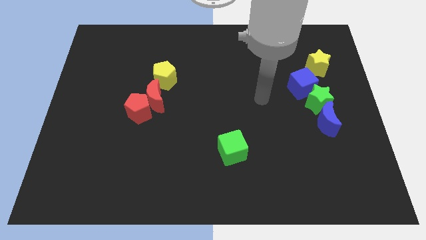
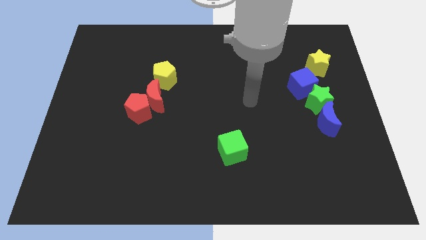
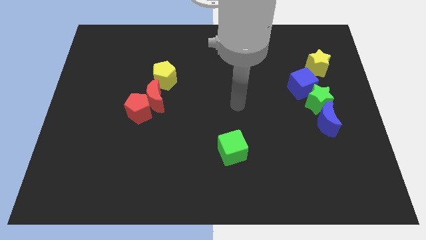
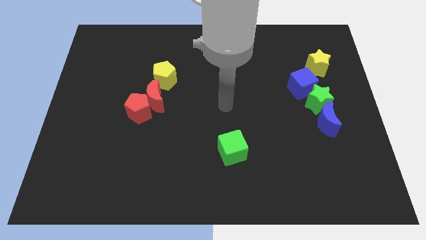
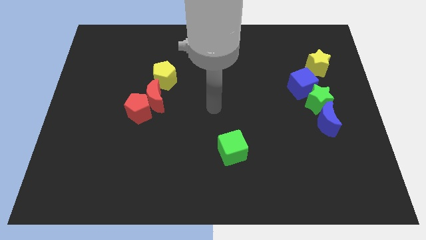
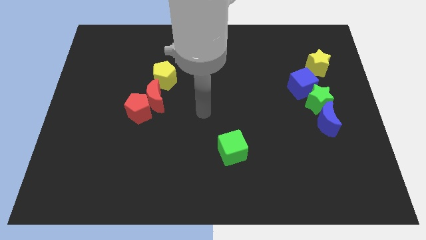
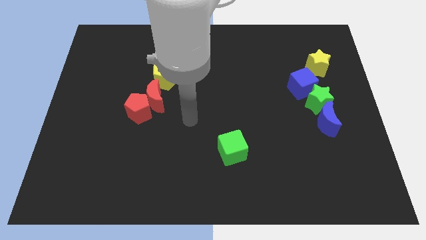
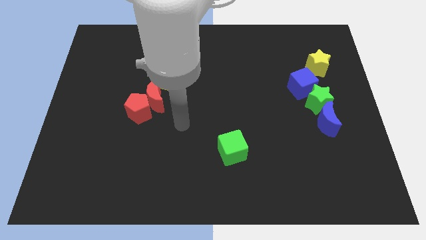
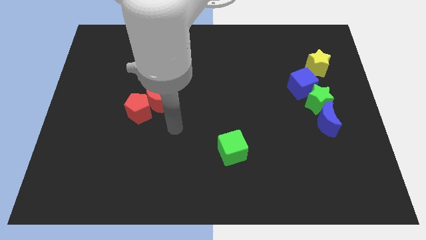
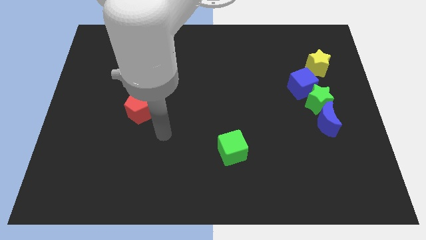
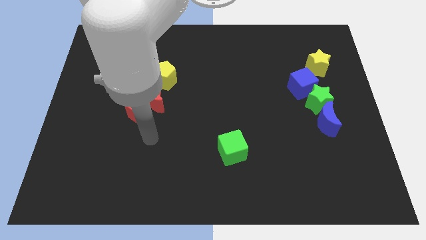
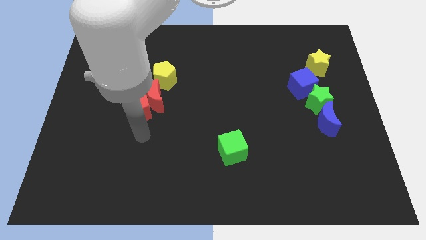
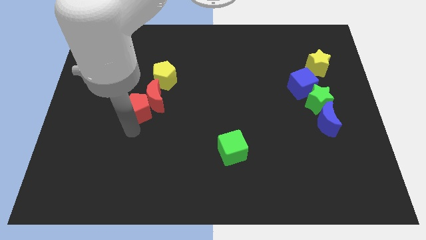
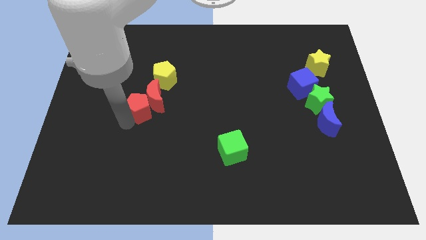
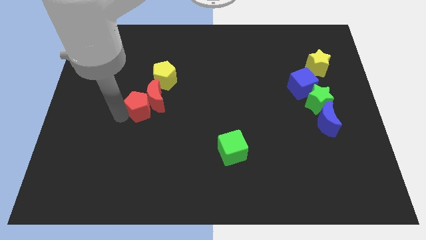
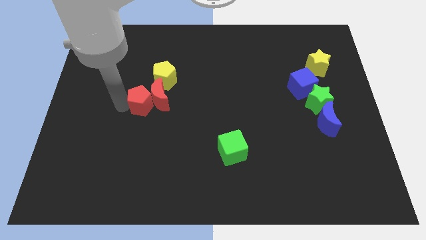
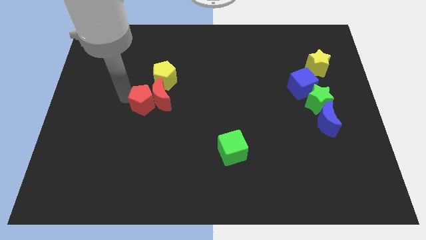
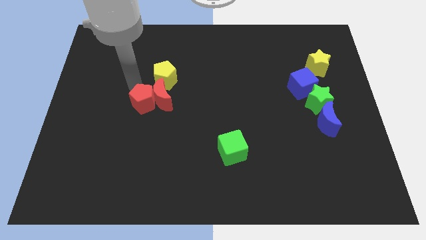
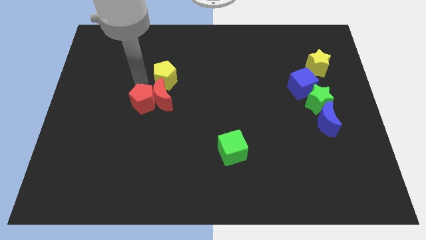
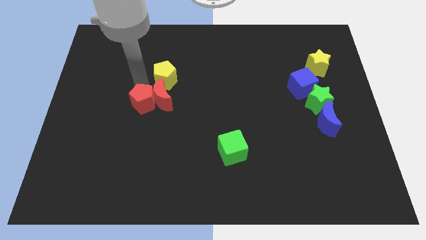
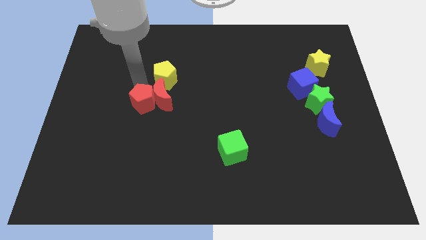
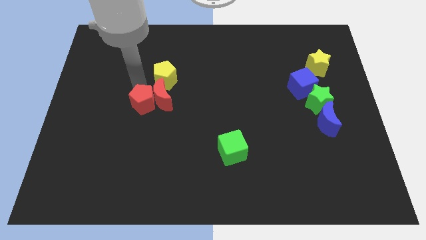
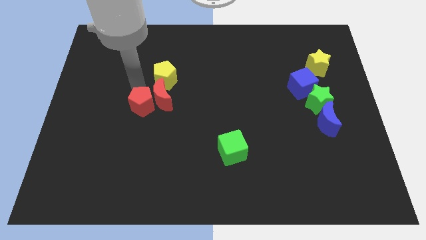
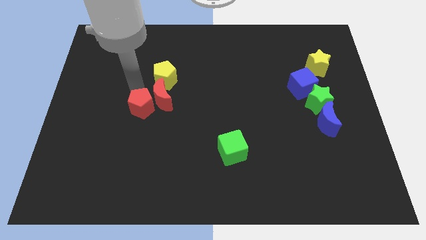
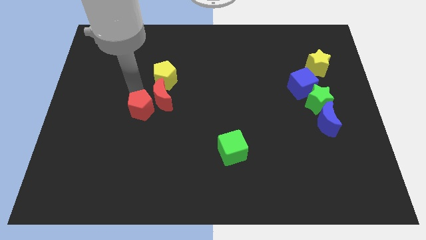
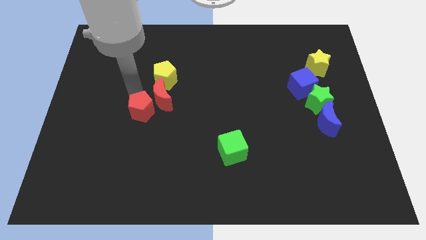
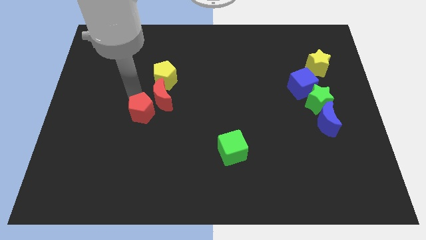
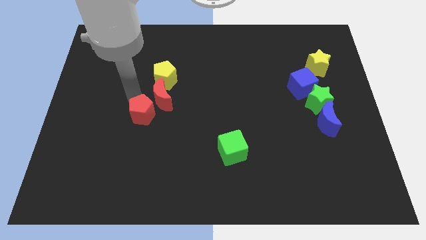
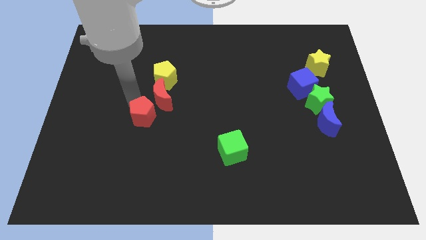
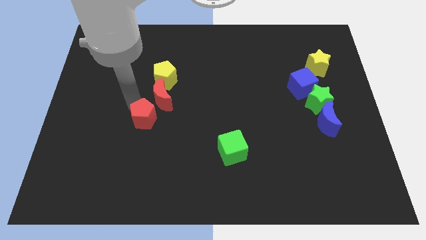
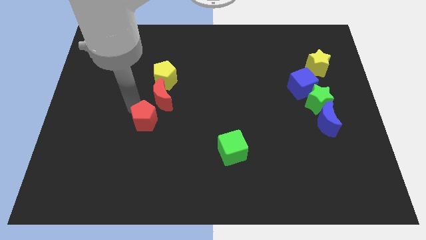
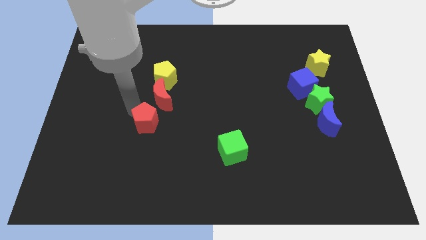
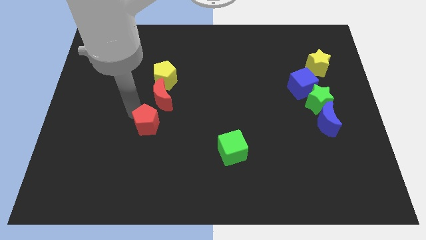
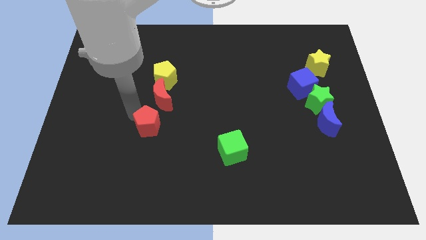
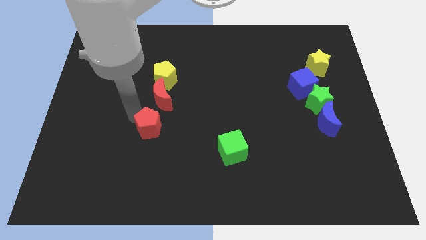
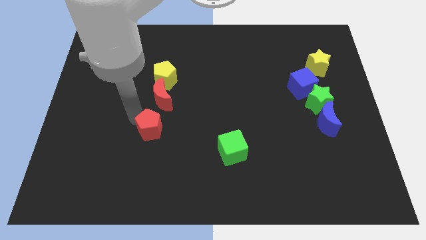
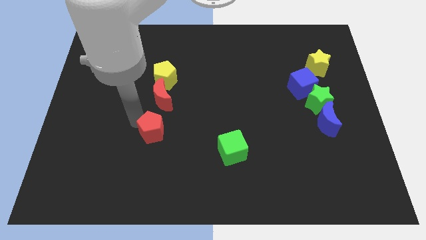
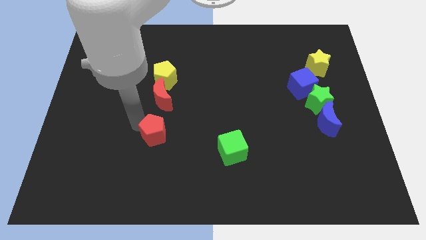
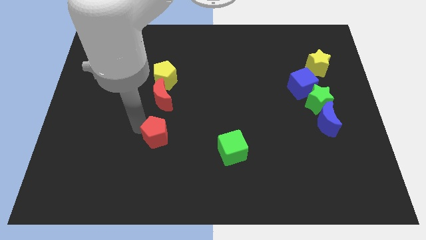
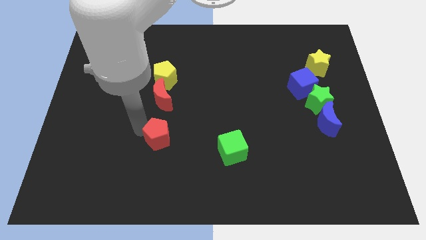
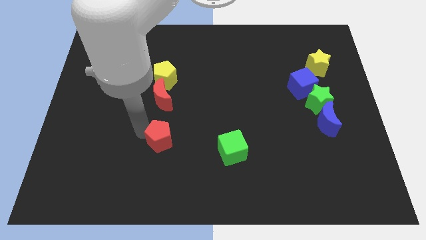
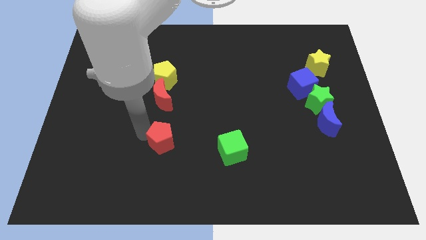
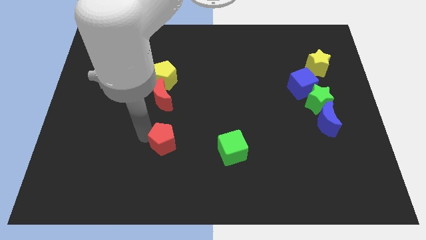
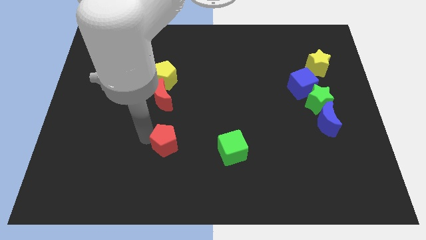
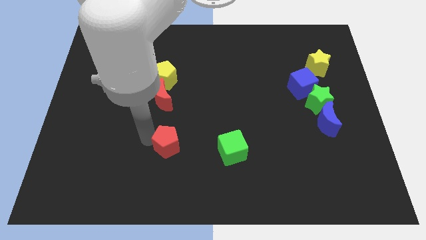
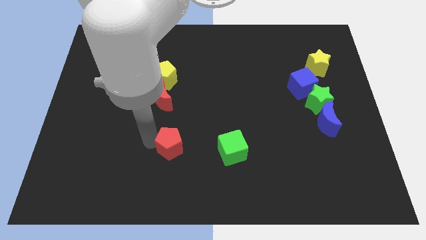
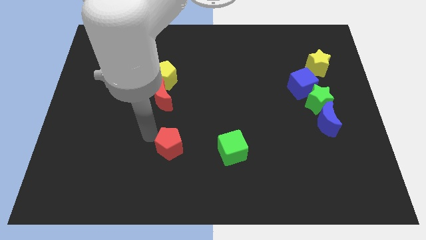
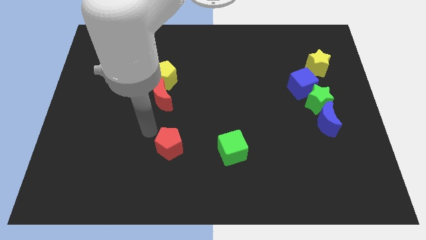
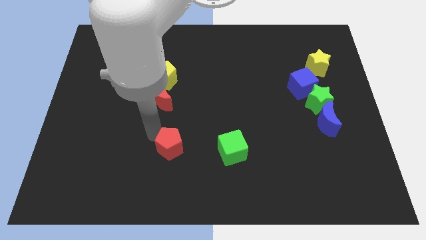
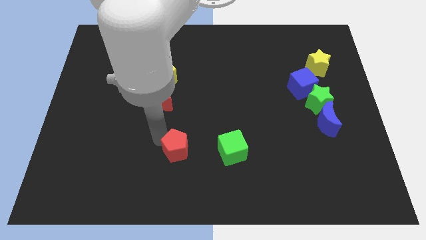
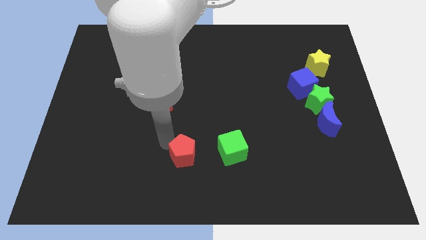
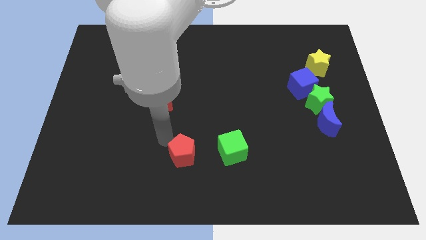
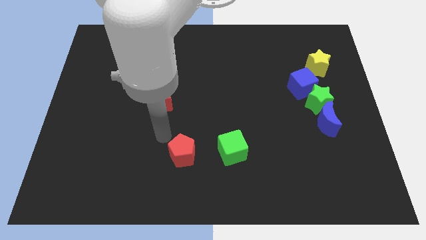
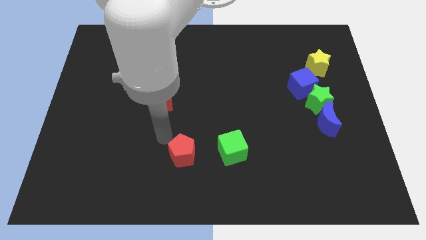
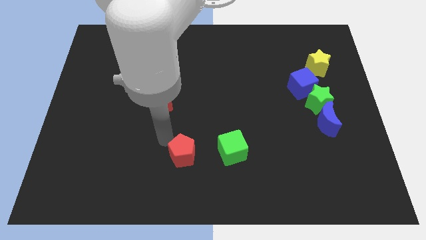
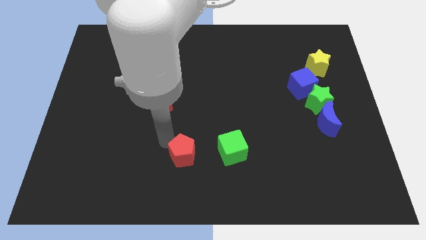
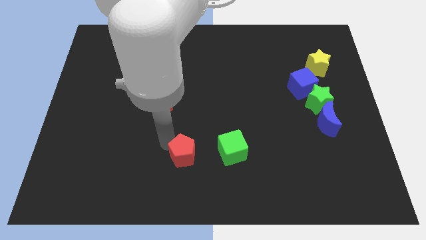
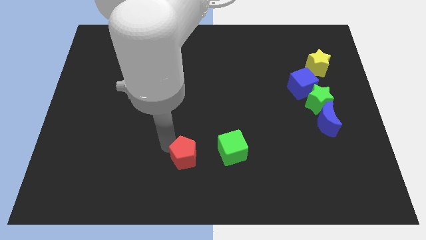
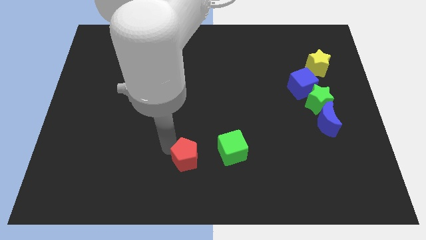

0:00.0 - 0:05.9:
push the red pentagon to the bottom
